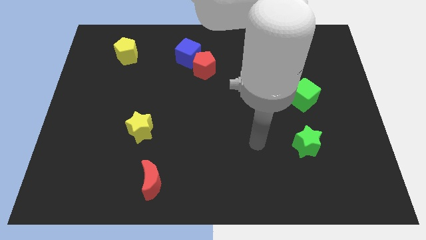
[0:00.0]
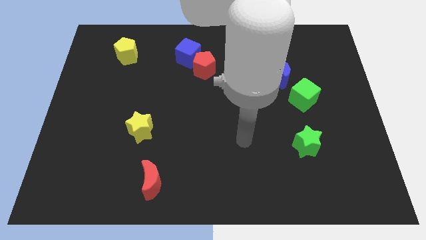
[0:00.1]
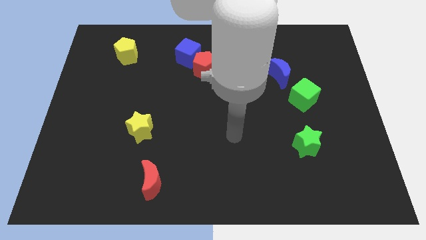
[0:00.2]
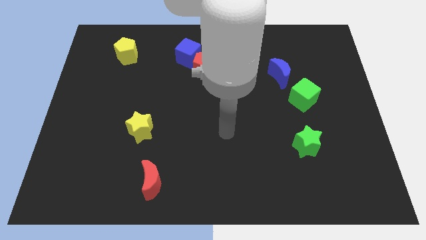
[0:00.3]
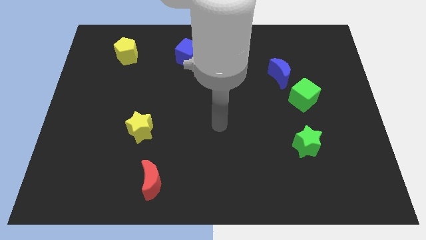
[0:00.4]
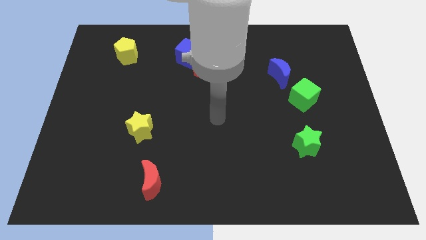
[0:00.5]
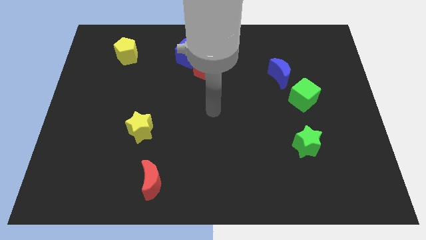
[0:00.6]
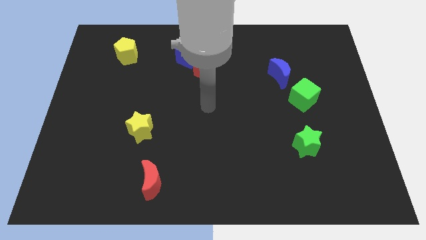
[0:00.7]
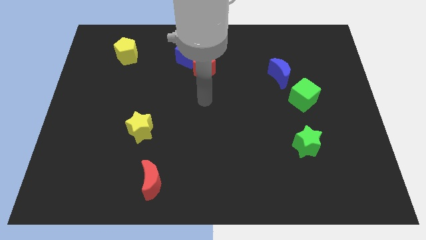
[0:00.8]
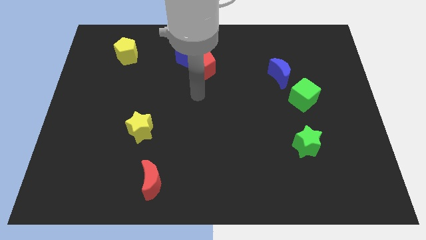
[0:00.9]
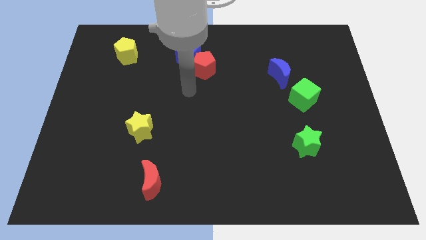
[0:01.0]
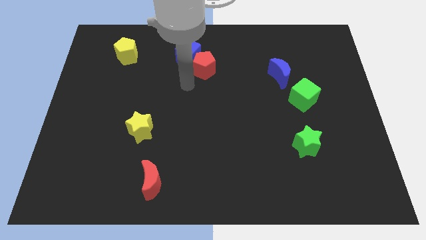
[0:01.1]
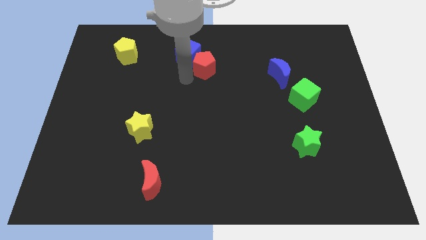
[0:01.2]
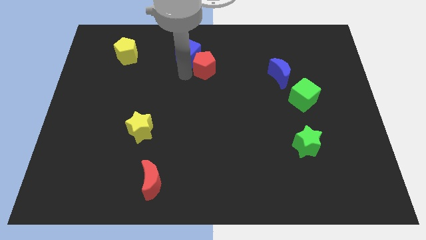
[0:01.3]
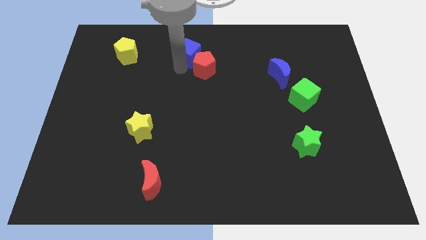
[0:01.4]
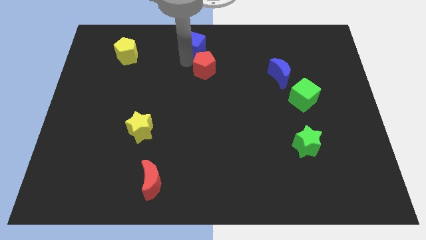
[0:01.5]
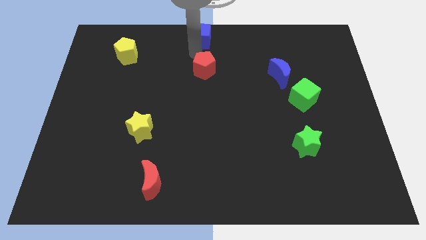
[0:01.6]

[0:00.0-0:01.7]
separate the red pentagon from the blue cube

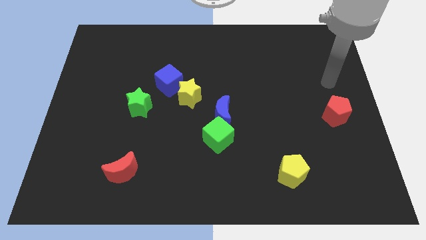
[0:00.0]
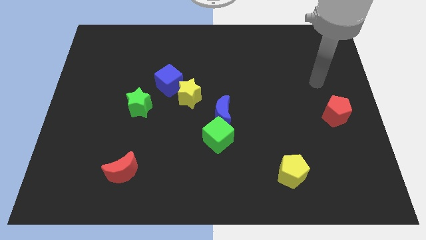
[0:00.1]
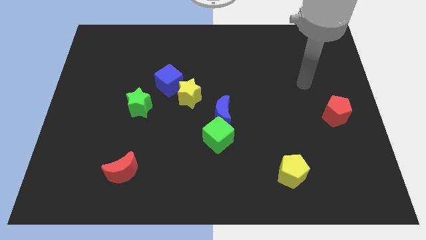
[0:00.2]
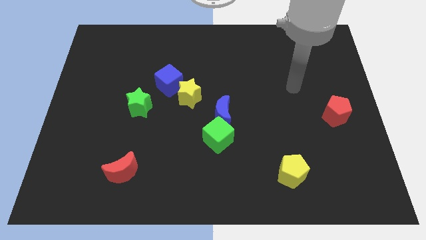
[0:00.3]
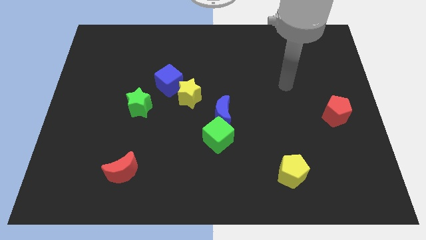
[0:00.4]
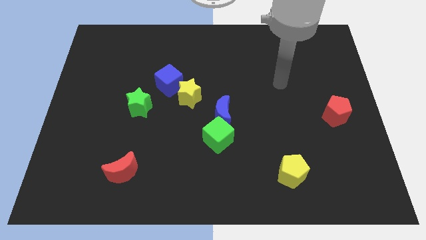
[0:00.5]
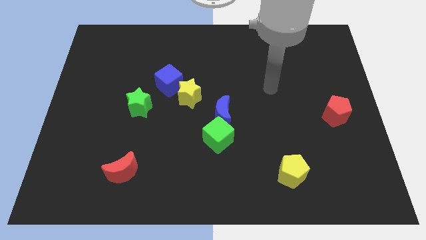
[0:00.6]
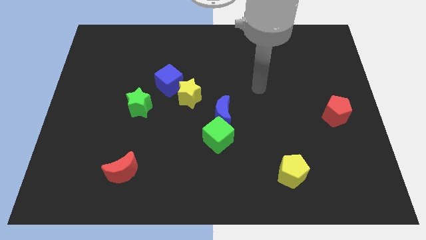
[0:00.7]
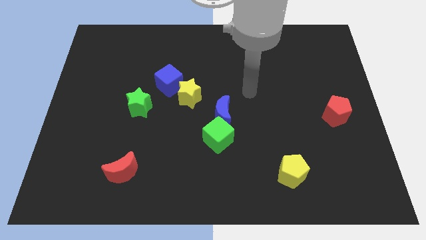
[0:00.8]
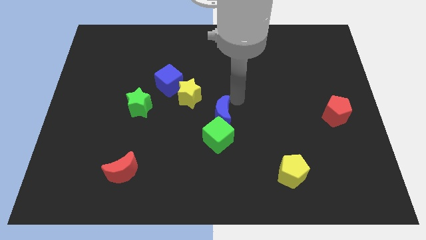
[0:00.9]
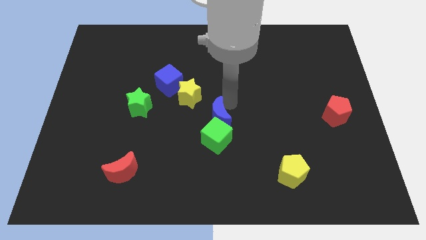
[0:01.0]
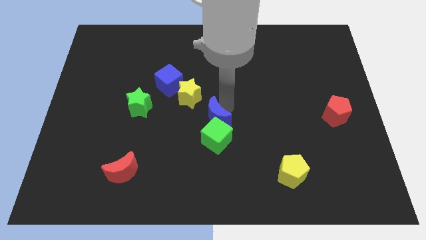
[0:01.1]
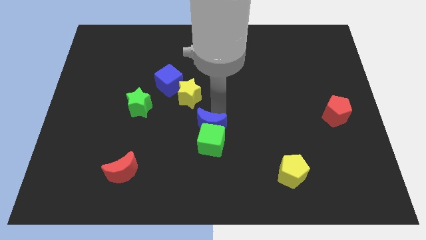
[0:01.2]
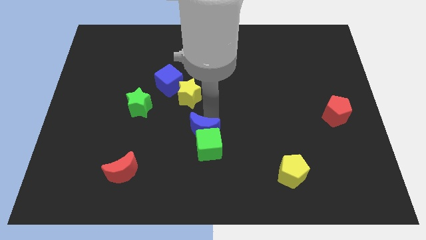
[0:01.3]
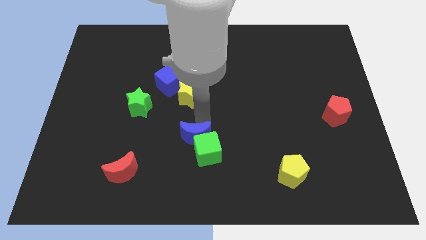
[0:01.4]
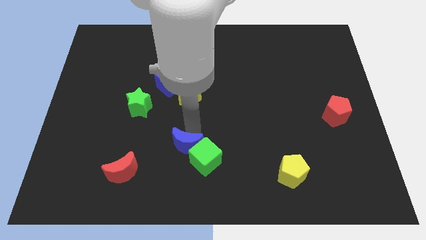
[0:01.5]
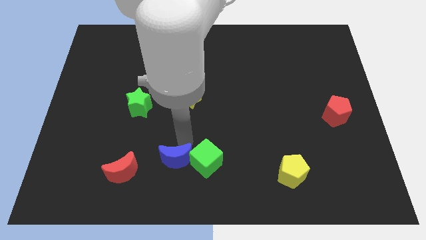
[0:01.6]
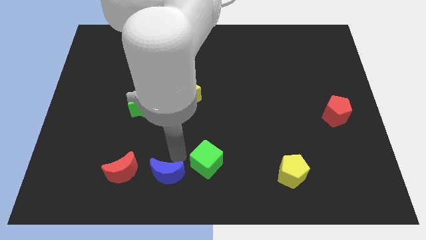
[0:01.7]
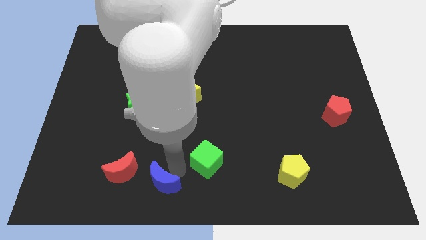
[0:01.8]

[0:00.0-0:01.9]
separate the green cube from the blue moon

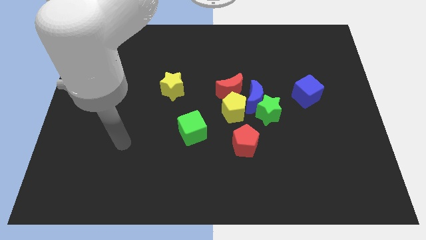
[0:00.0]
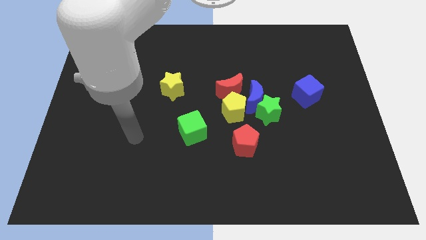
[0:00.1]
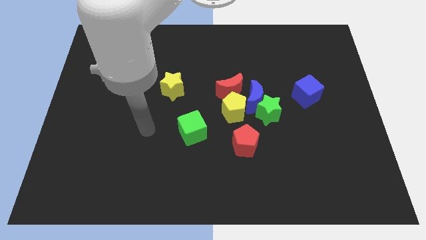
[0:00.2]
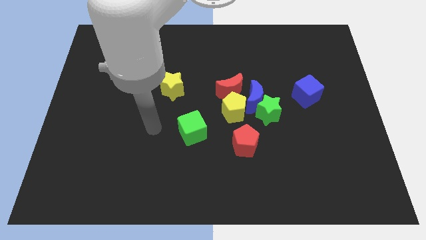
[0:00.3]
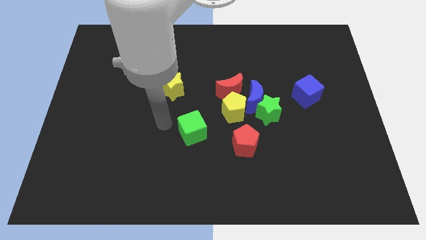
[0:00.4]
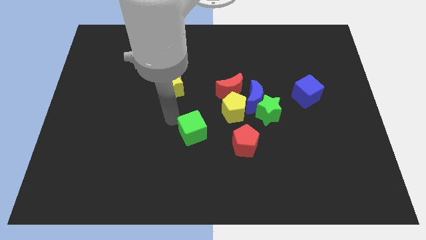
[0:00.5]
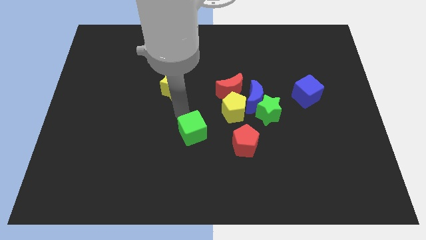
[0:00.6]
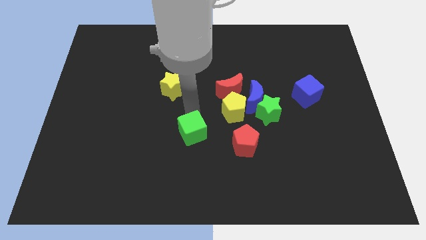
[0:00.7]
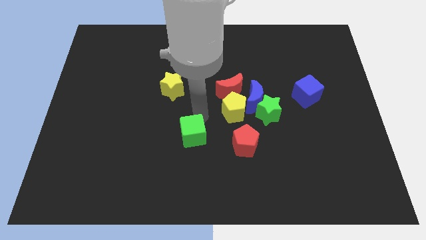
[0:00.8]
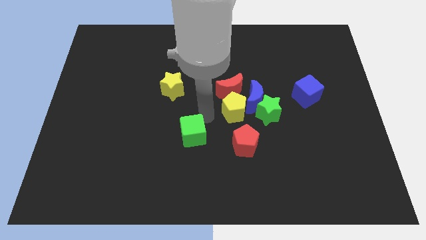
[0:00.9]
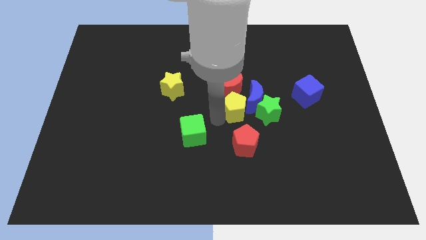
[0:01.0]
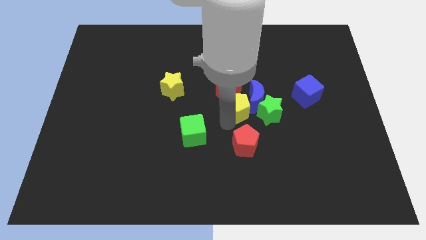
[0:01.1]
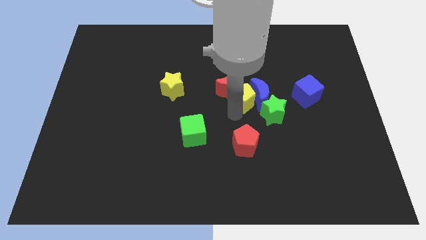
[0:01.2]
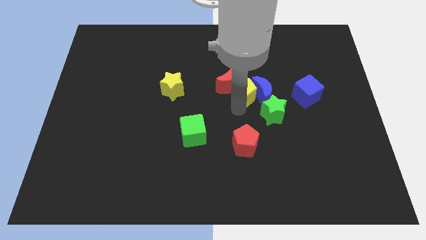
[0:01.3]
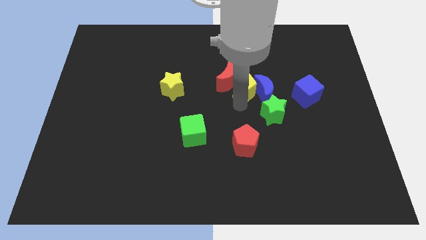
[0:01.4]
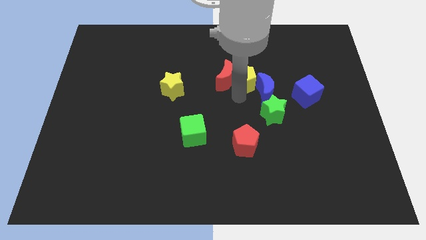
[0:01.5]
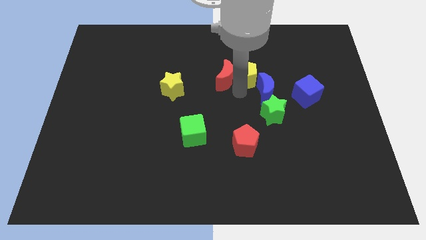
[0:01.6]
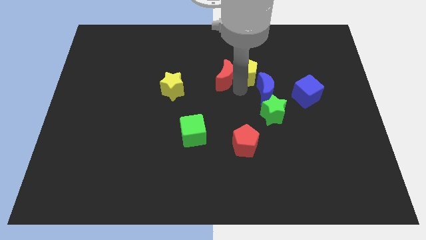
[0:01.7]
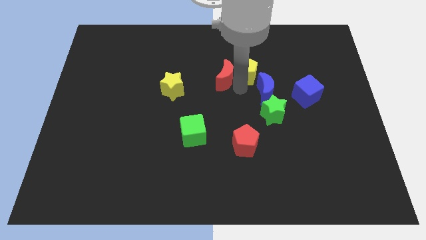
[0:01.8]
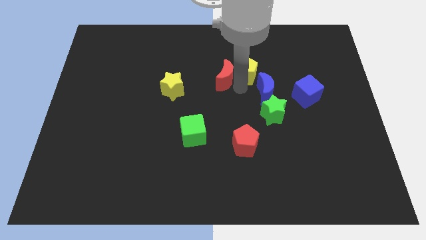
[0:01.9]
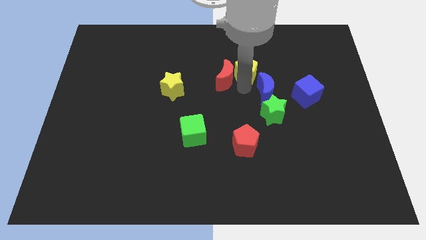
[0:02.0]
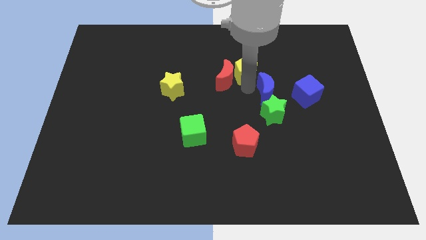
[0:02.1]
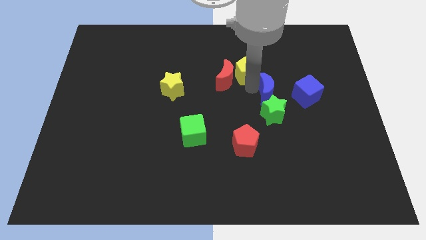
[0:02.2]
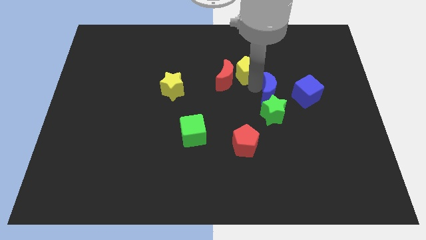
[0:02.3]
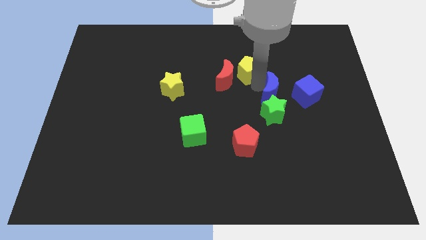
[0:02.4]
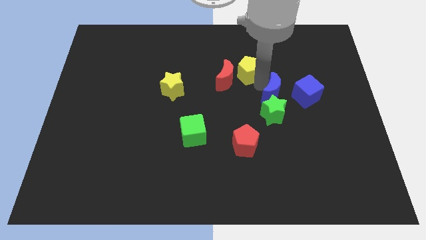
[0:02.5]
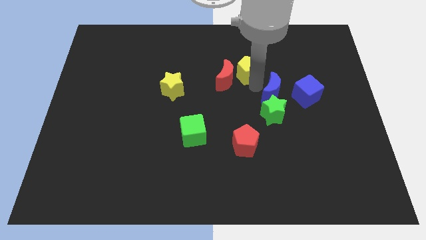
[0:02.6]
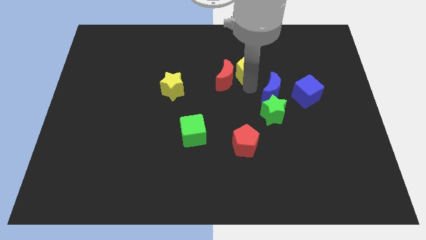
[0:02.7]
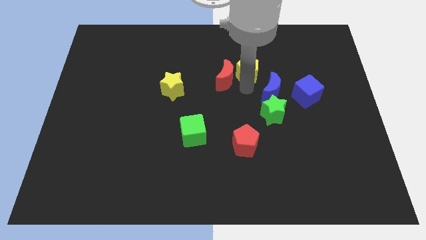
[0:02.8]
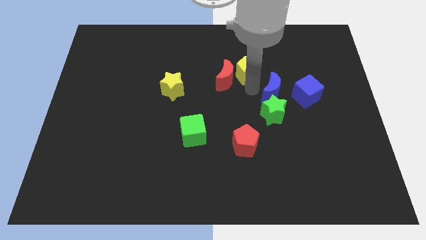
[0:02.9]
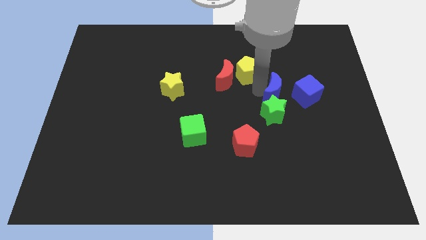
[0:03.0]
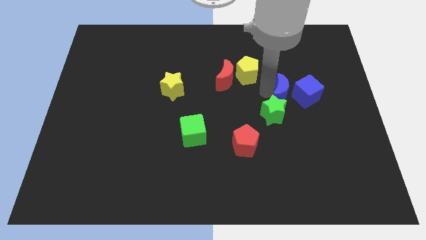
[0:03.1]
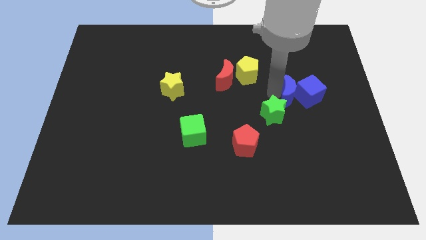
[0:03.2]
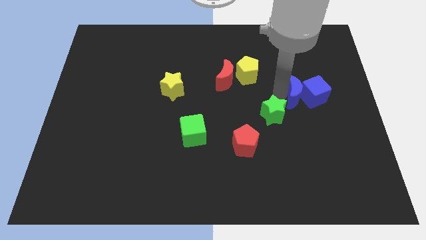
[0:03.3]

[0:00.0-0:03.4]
separate the blue moon from the group of blocks

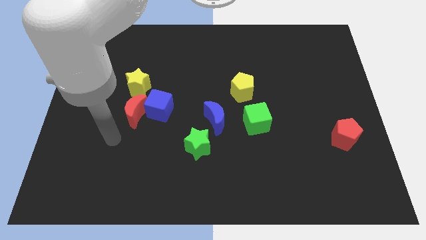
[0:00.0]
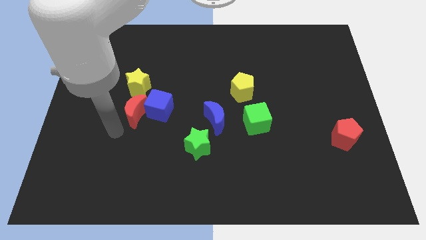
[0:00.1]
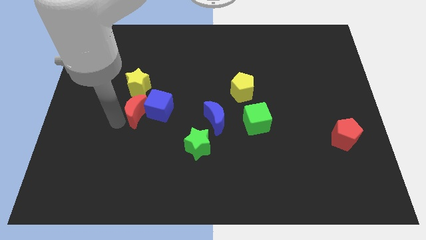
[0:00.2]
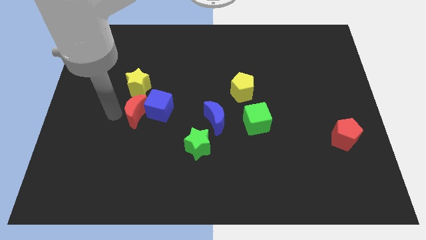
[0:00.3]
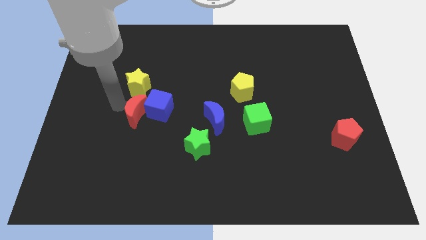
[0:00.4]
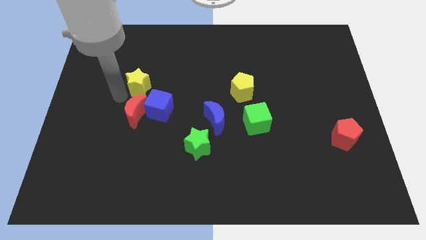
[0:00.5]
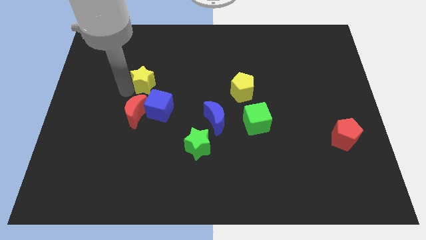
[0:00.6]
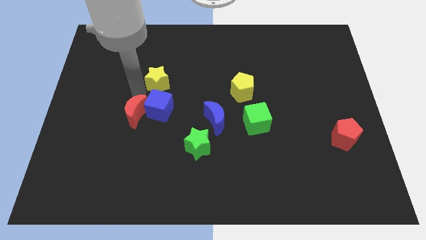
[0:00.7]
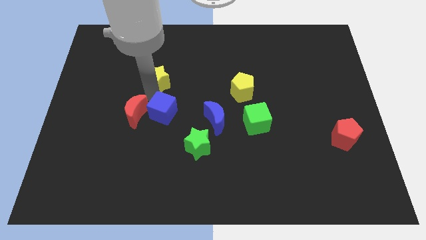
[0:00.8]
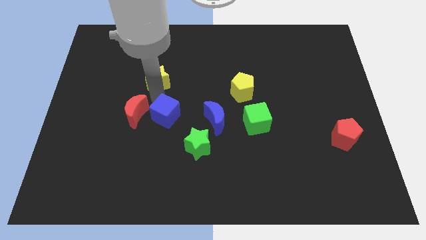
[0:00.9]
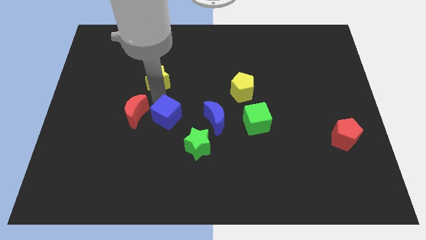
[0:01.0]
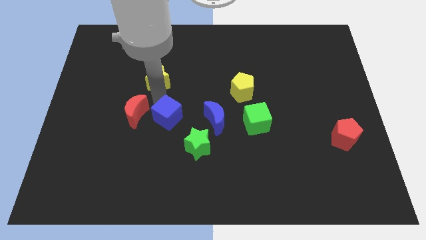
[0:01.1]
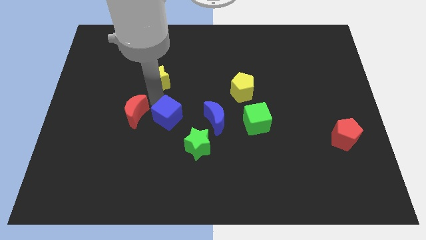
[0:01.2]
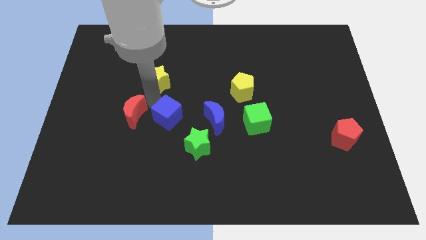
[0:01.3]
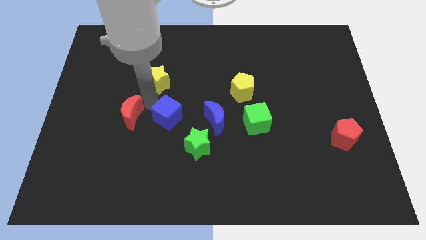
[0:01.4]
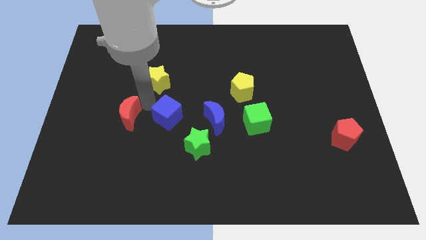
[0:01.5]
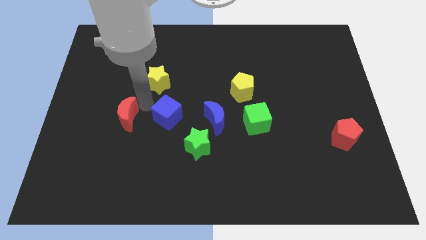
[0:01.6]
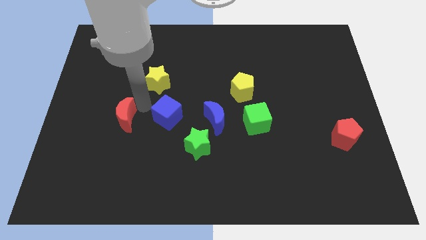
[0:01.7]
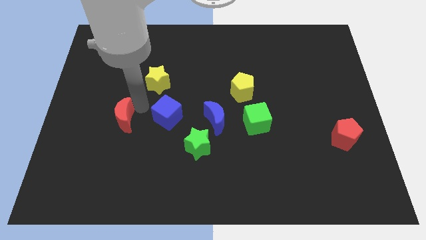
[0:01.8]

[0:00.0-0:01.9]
pull the red moon apart from the blue cube and yellow star

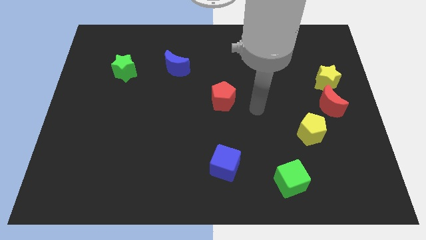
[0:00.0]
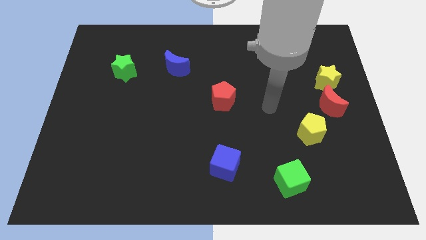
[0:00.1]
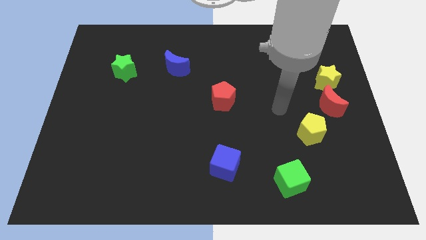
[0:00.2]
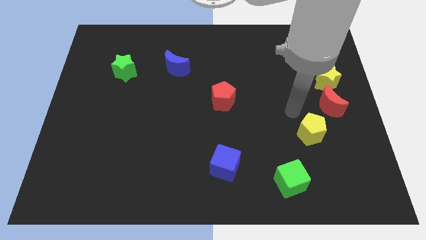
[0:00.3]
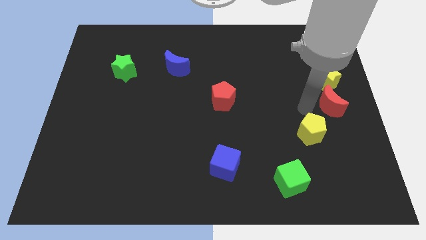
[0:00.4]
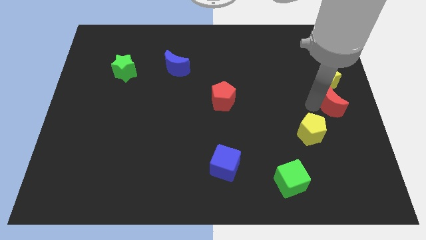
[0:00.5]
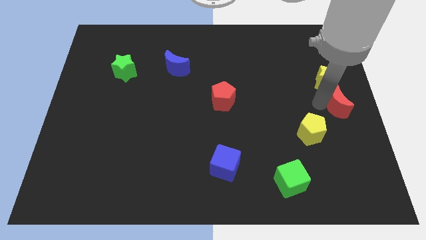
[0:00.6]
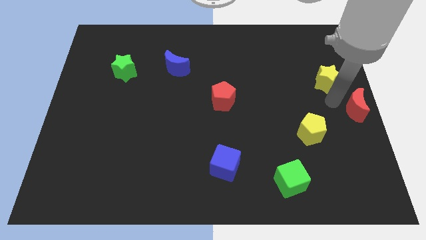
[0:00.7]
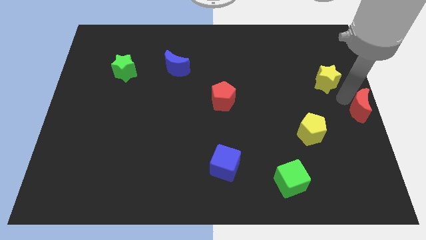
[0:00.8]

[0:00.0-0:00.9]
separate the yellow star from the red moon
